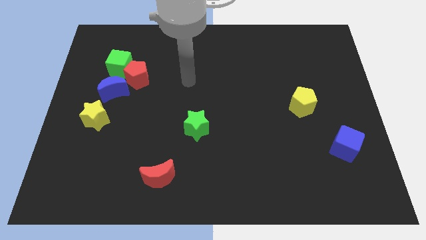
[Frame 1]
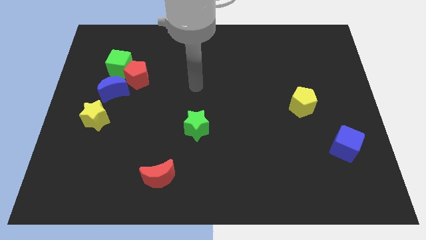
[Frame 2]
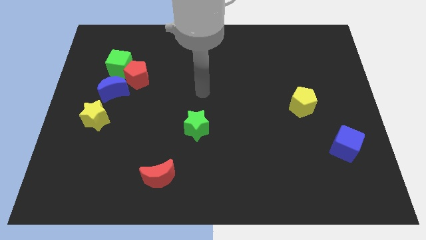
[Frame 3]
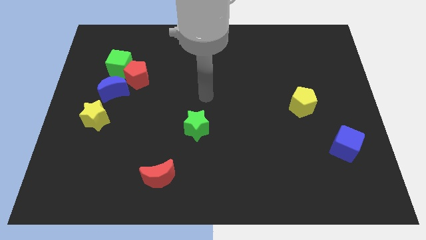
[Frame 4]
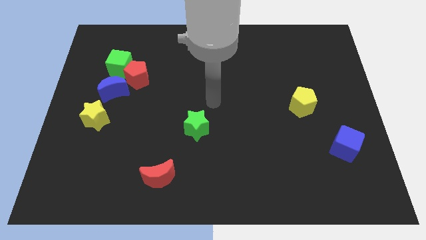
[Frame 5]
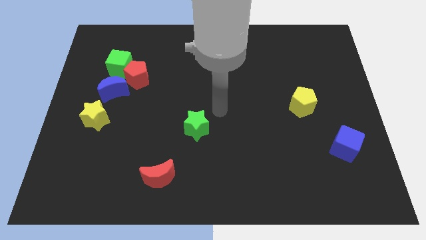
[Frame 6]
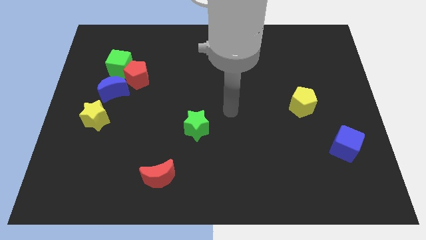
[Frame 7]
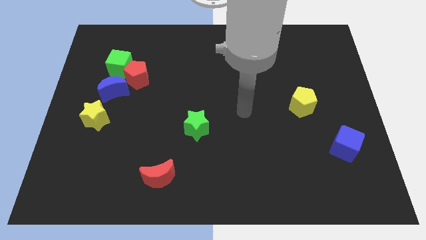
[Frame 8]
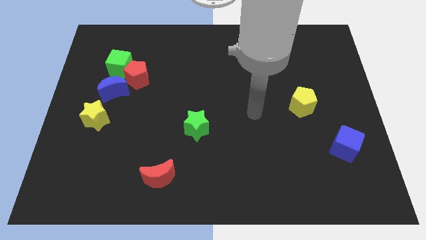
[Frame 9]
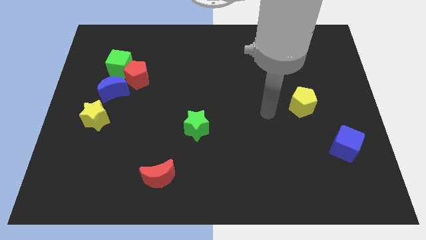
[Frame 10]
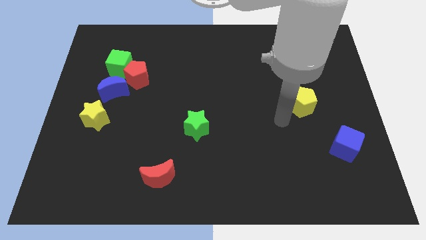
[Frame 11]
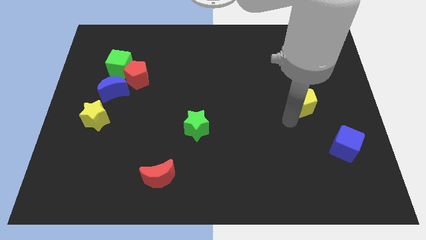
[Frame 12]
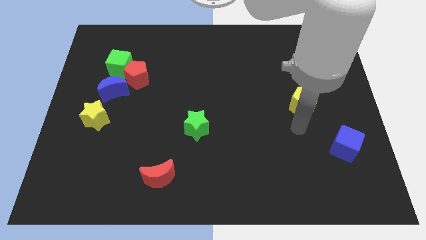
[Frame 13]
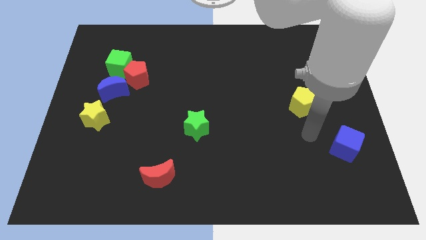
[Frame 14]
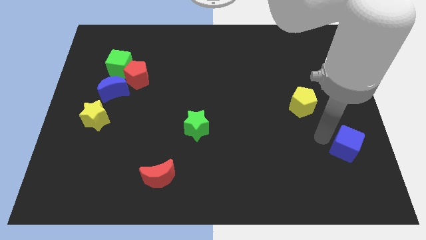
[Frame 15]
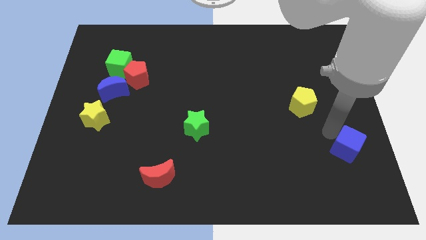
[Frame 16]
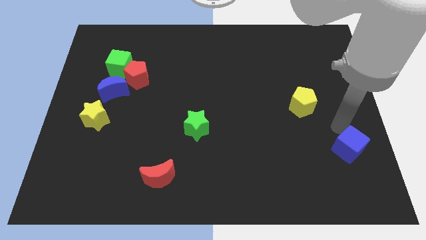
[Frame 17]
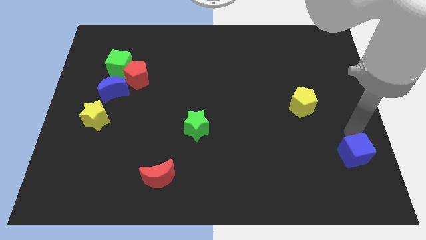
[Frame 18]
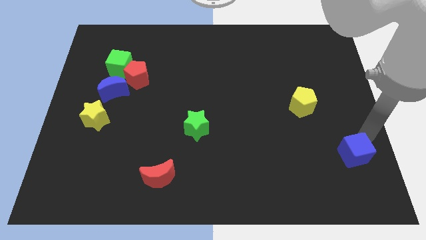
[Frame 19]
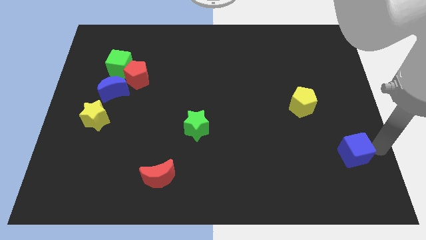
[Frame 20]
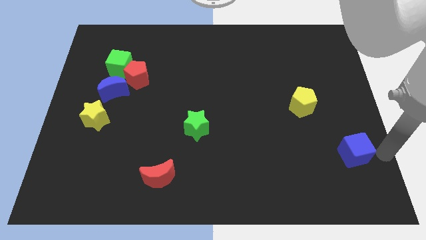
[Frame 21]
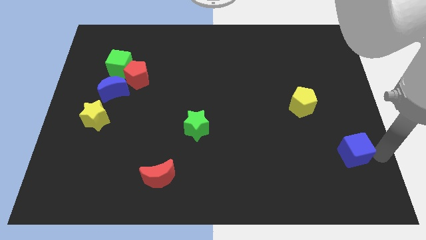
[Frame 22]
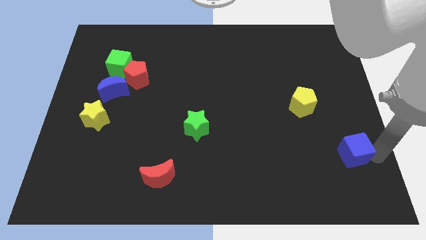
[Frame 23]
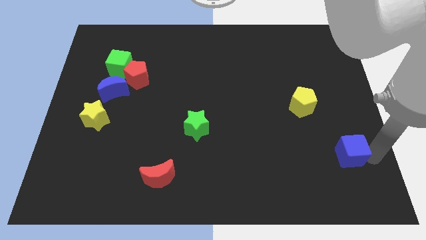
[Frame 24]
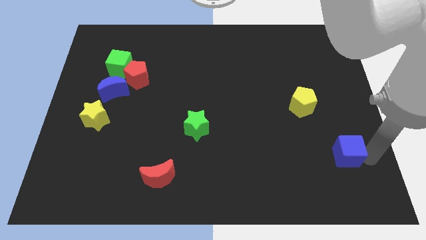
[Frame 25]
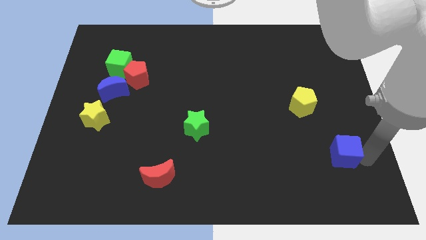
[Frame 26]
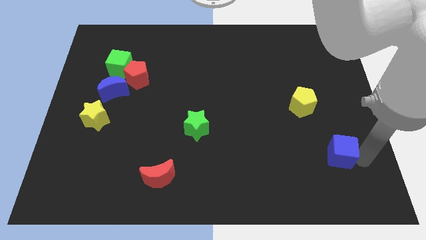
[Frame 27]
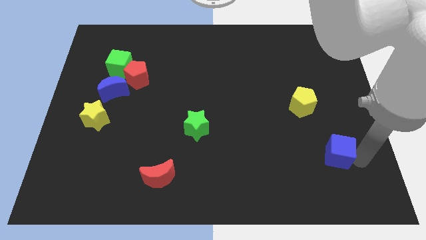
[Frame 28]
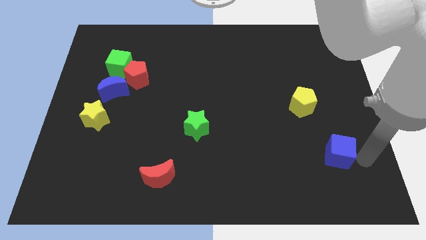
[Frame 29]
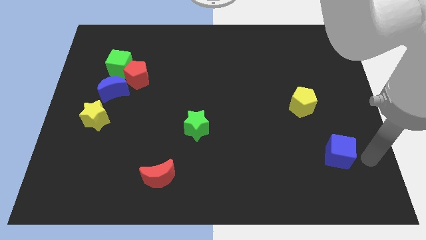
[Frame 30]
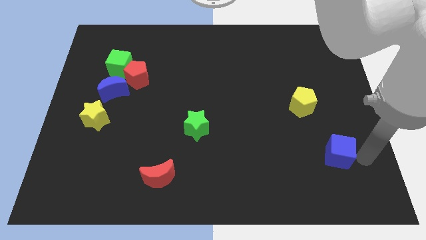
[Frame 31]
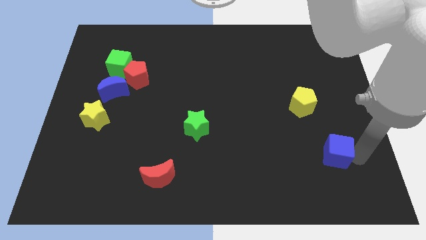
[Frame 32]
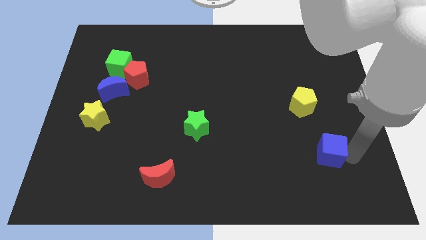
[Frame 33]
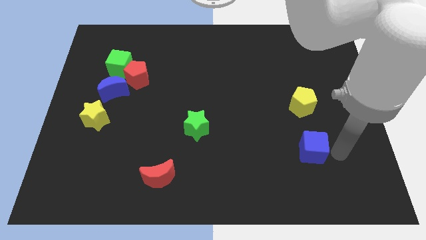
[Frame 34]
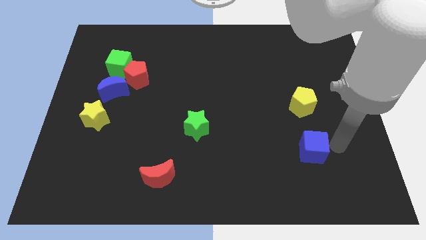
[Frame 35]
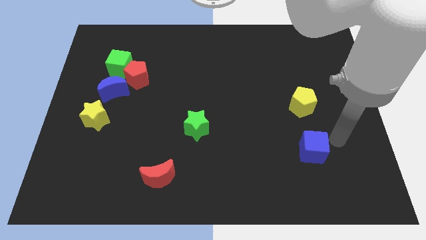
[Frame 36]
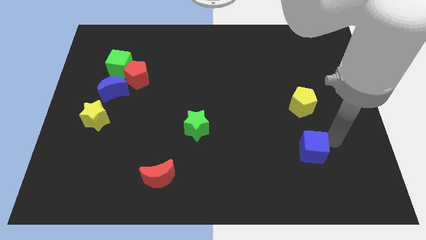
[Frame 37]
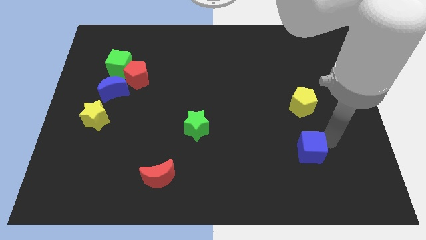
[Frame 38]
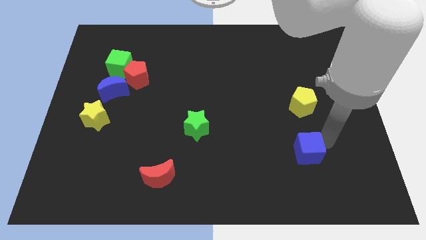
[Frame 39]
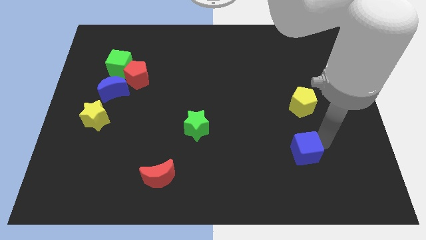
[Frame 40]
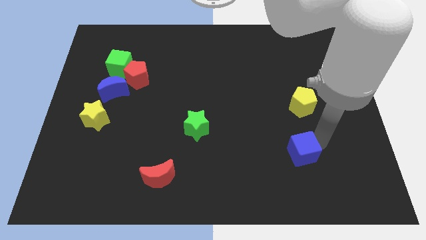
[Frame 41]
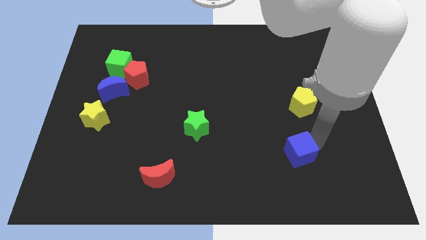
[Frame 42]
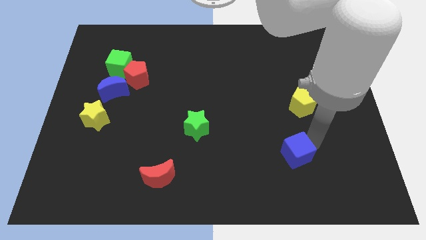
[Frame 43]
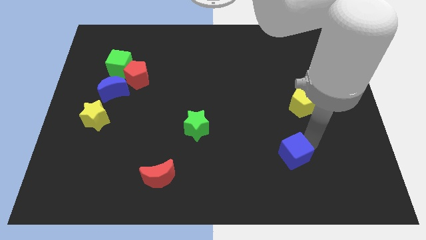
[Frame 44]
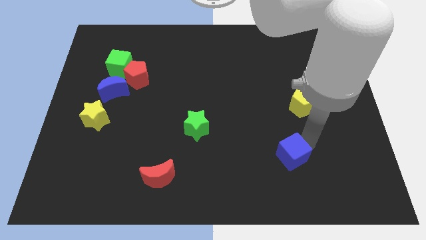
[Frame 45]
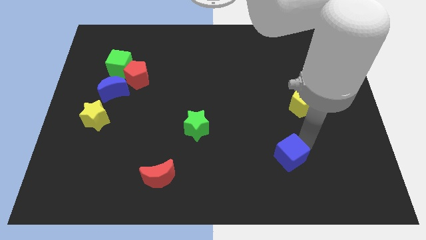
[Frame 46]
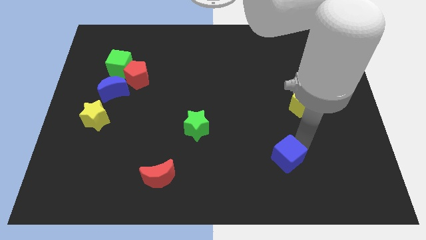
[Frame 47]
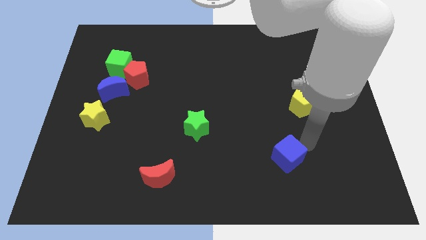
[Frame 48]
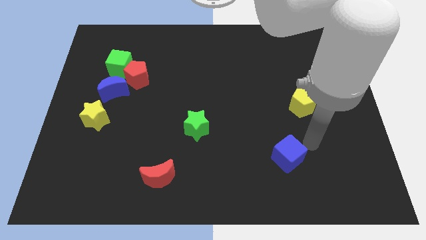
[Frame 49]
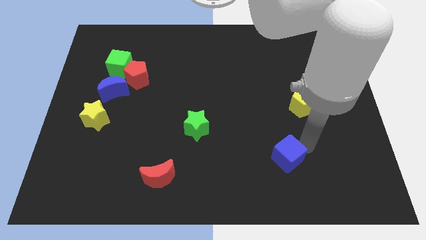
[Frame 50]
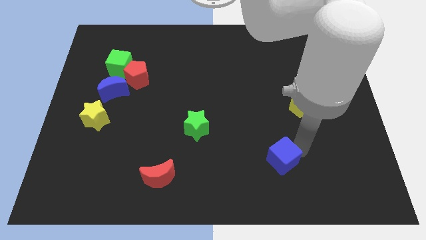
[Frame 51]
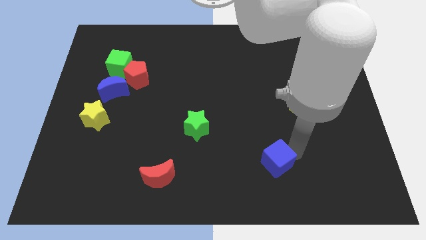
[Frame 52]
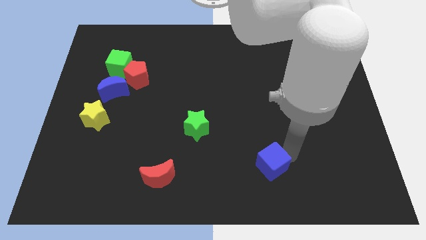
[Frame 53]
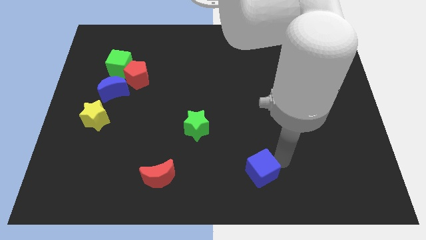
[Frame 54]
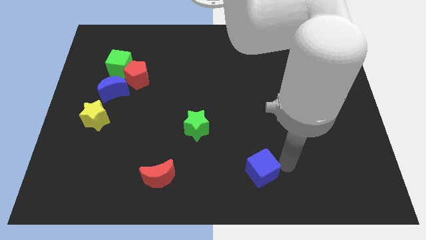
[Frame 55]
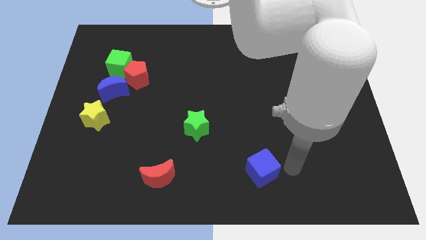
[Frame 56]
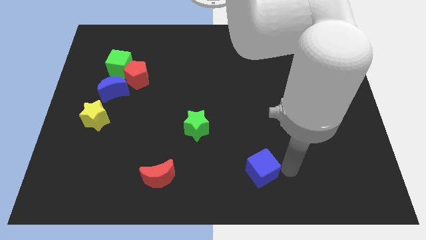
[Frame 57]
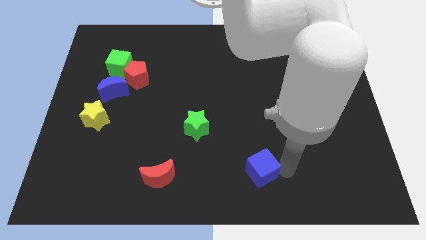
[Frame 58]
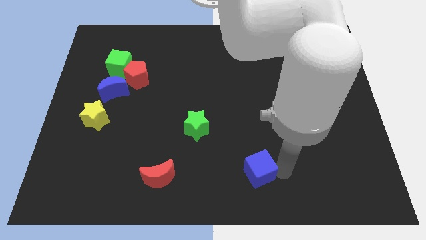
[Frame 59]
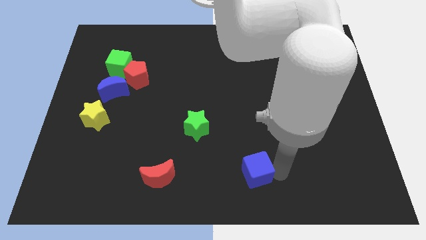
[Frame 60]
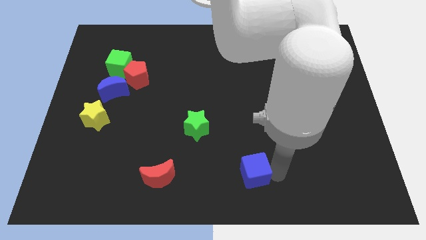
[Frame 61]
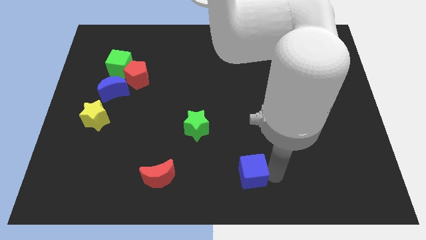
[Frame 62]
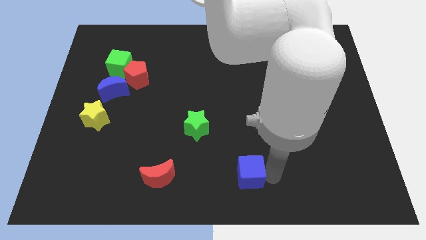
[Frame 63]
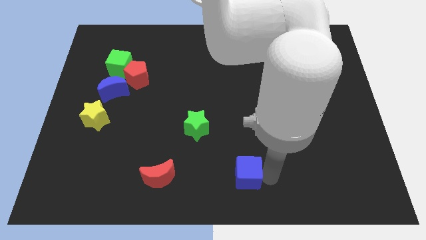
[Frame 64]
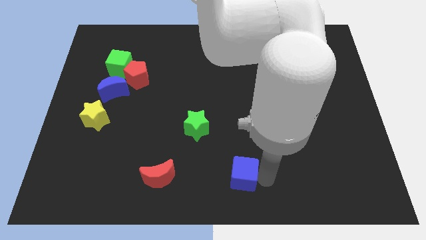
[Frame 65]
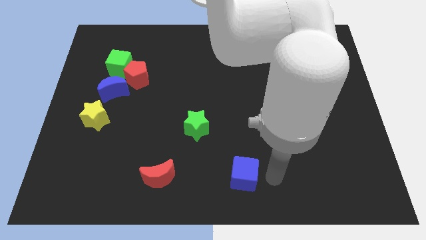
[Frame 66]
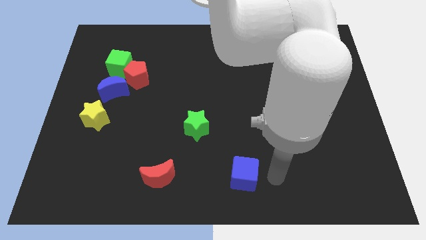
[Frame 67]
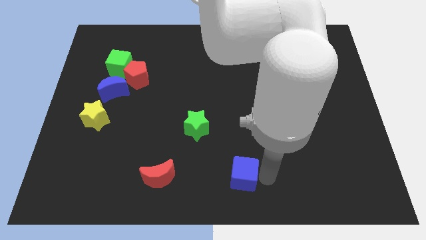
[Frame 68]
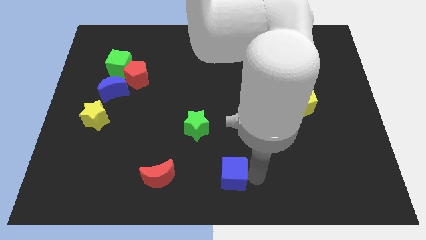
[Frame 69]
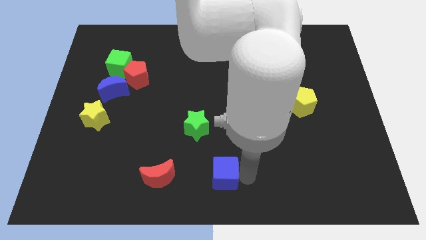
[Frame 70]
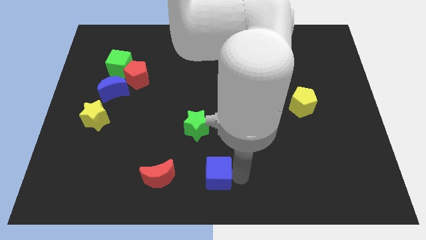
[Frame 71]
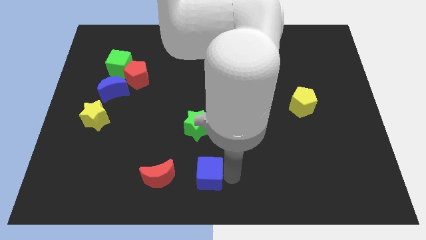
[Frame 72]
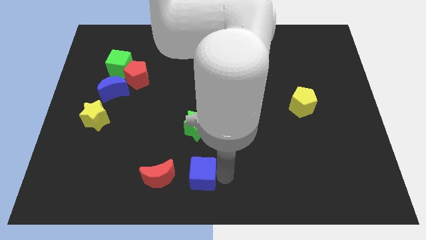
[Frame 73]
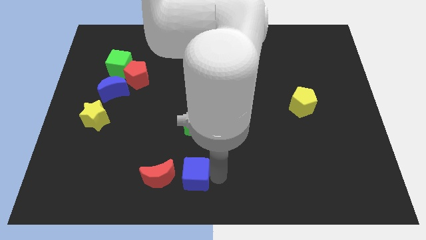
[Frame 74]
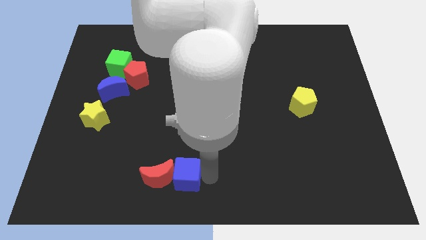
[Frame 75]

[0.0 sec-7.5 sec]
slide the blue cube next to the red moon
